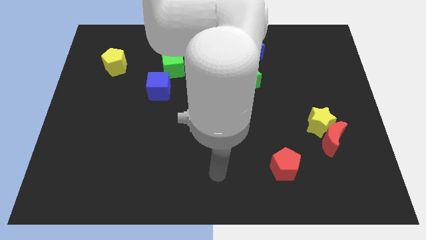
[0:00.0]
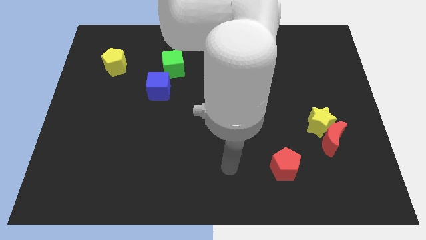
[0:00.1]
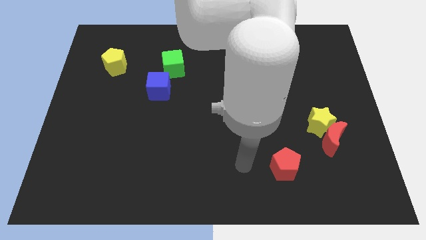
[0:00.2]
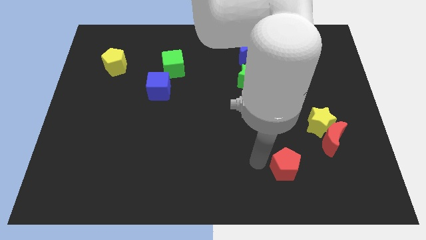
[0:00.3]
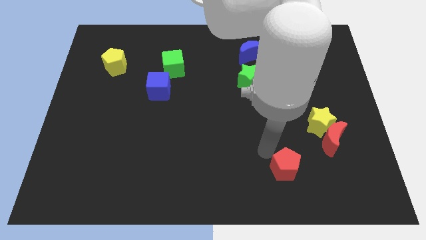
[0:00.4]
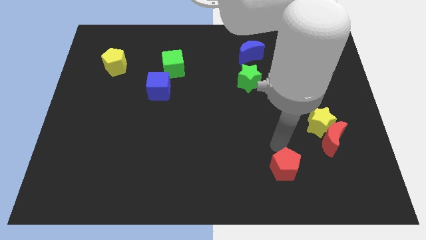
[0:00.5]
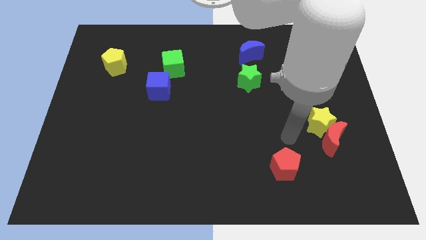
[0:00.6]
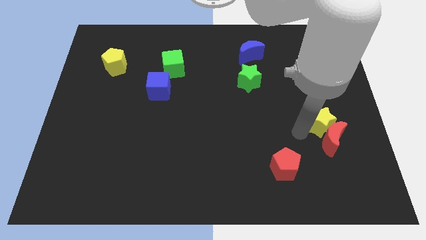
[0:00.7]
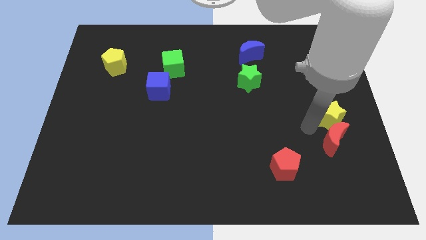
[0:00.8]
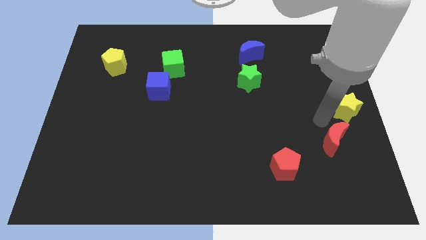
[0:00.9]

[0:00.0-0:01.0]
move the red moon away from the yellow star

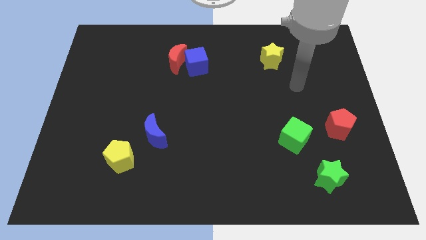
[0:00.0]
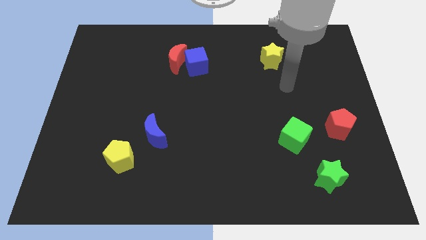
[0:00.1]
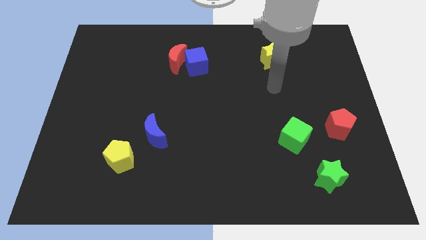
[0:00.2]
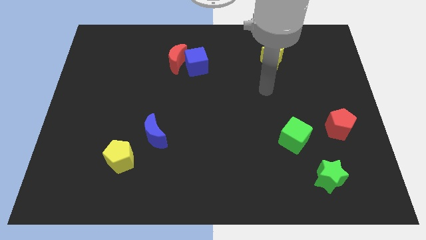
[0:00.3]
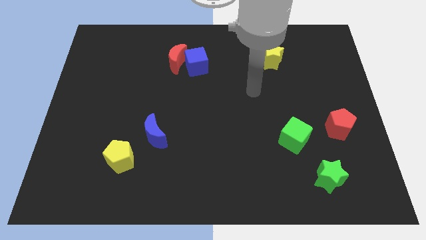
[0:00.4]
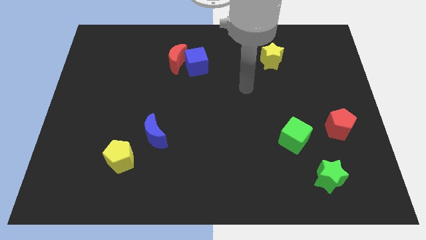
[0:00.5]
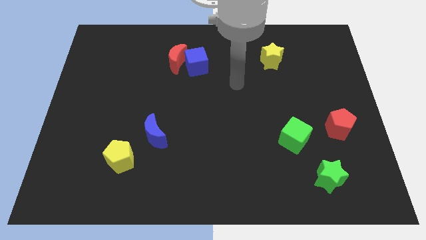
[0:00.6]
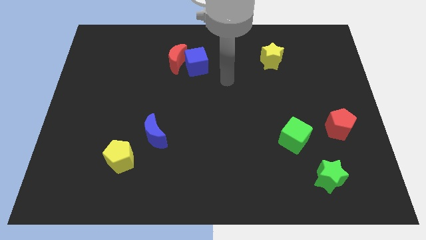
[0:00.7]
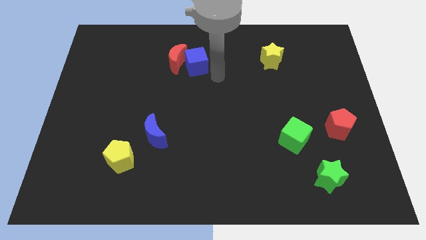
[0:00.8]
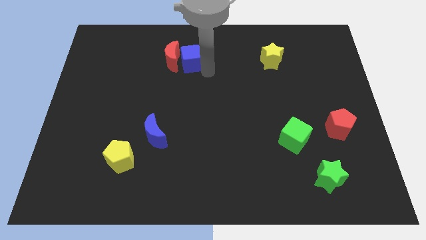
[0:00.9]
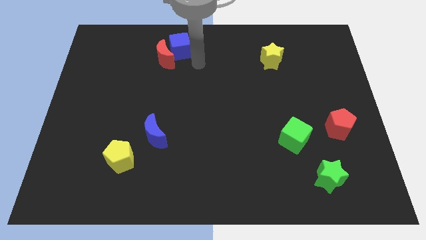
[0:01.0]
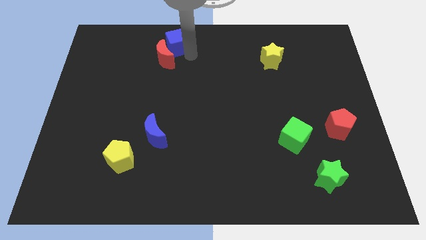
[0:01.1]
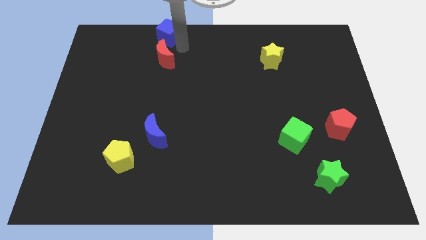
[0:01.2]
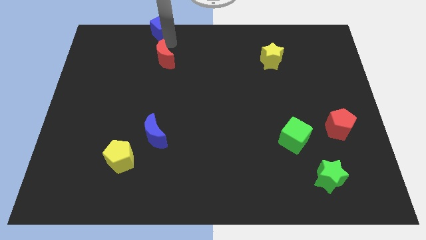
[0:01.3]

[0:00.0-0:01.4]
pull the red moon apart from the blue cube

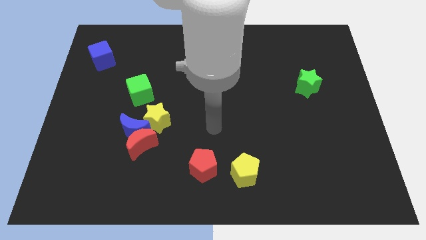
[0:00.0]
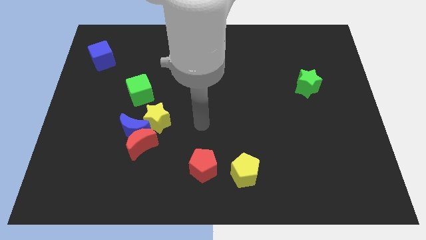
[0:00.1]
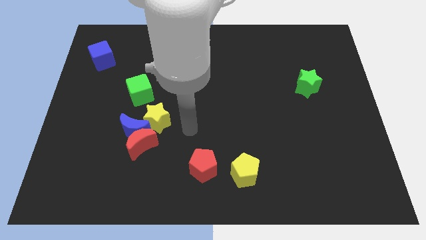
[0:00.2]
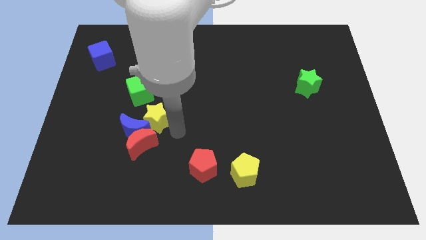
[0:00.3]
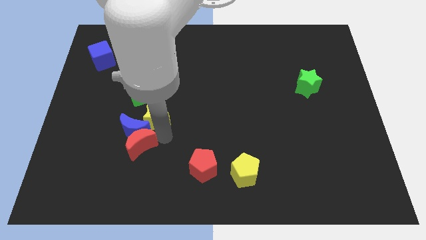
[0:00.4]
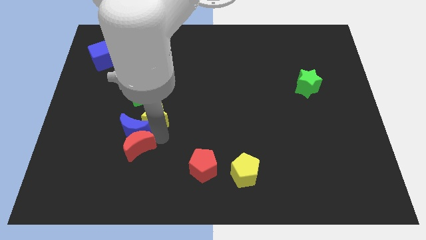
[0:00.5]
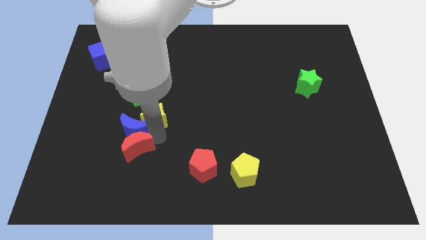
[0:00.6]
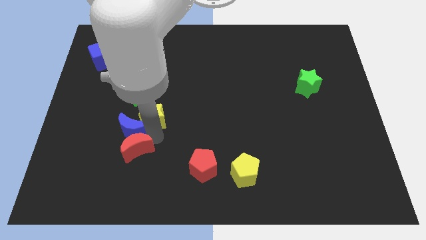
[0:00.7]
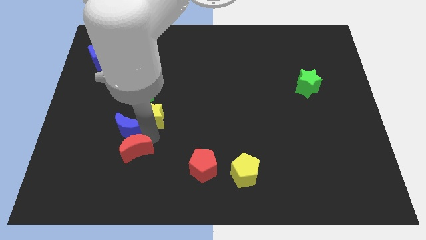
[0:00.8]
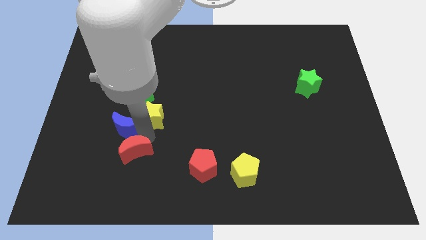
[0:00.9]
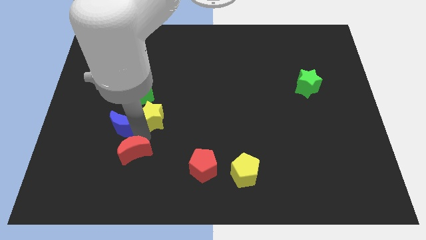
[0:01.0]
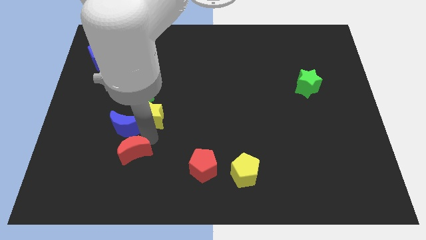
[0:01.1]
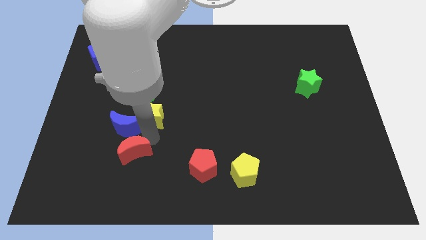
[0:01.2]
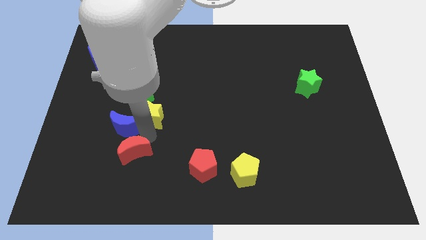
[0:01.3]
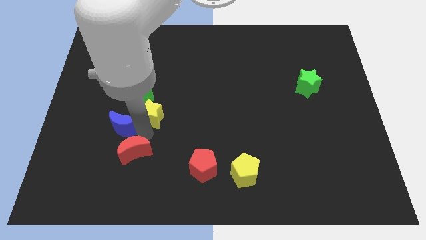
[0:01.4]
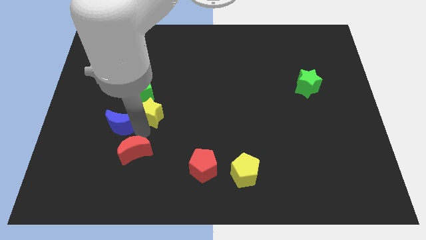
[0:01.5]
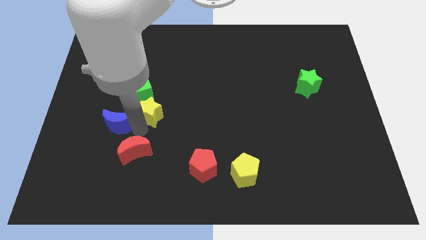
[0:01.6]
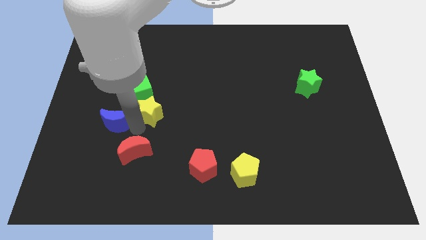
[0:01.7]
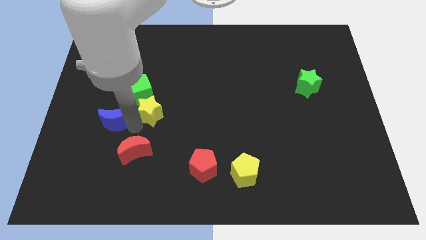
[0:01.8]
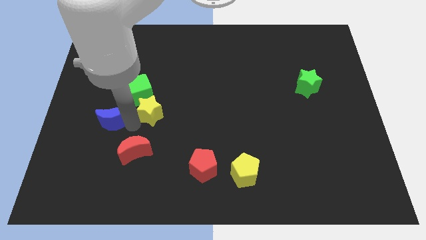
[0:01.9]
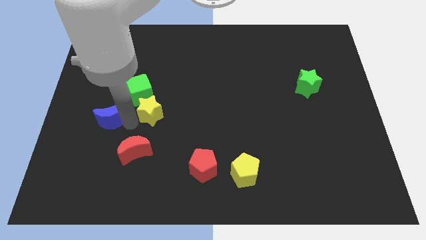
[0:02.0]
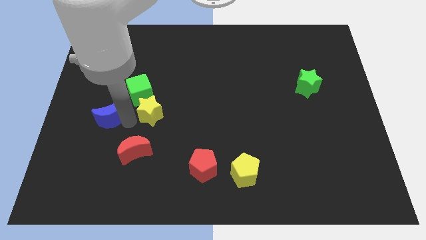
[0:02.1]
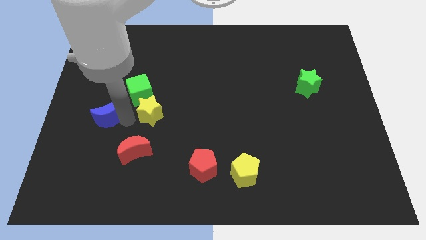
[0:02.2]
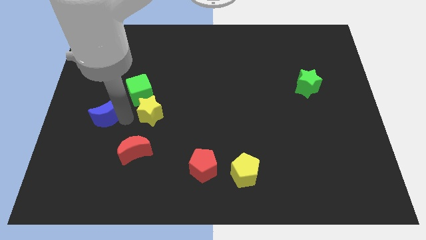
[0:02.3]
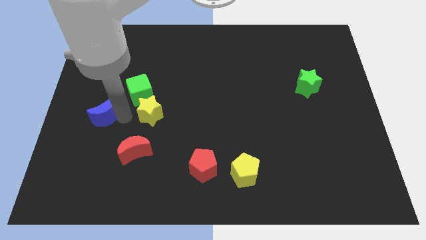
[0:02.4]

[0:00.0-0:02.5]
pull the blue moon apart from the red moon and yellow star

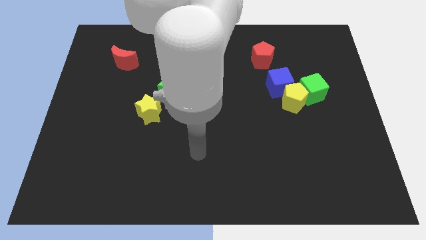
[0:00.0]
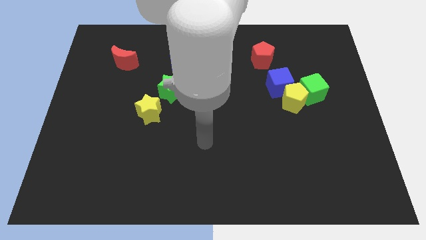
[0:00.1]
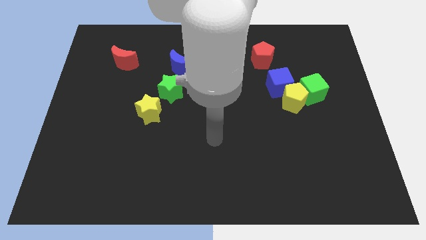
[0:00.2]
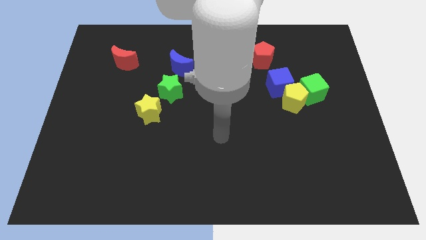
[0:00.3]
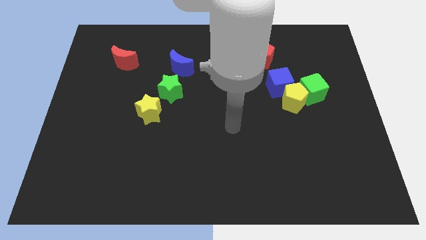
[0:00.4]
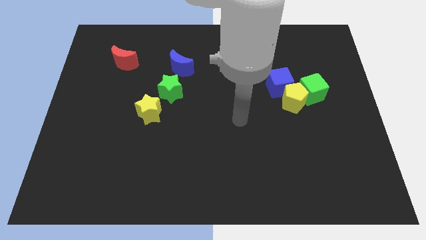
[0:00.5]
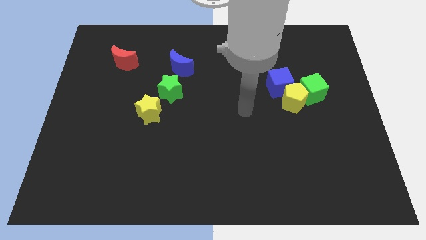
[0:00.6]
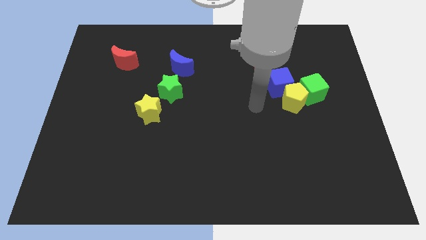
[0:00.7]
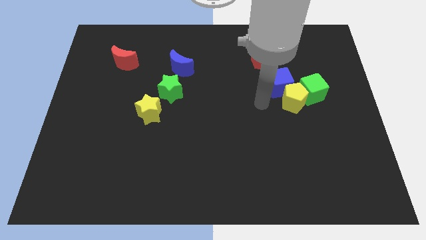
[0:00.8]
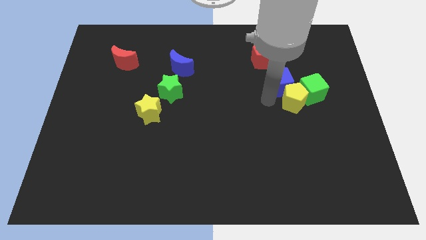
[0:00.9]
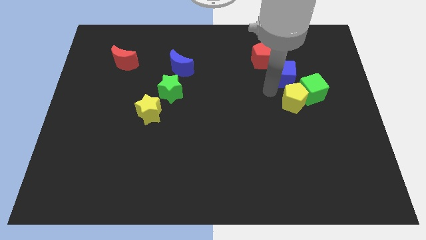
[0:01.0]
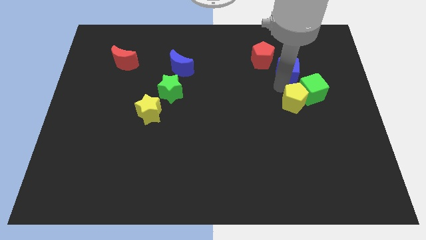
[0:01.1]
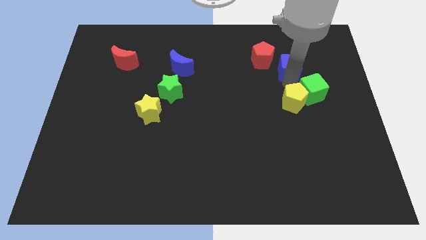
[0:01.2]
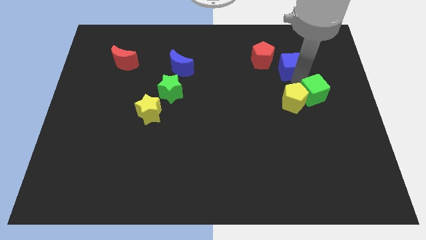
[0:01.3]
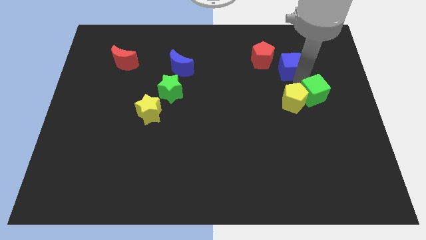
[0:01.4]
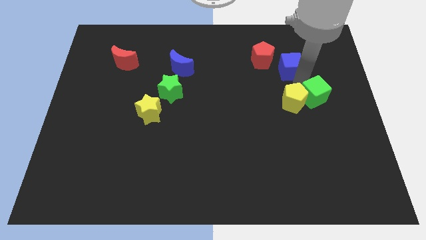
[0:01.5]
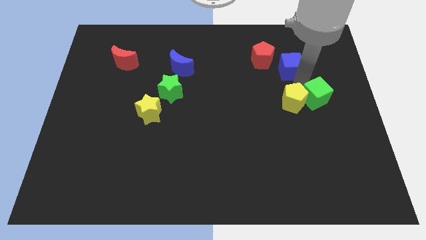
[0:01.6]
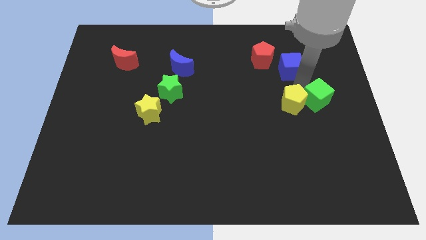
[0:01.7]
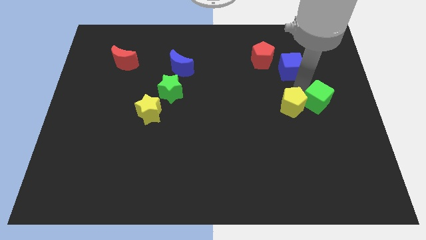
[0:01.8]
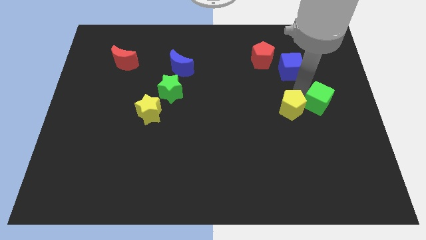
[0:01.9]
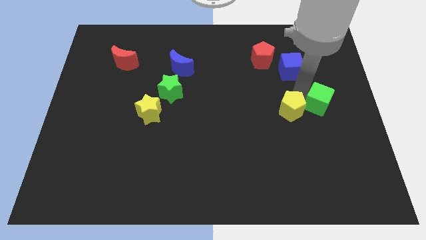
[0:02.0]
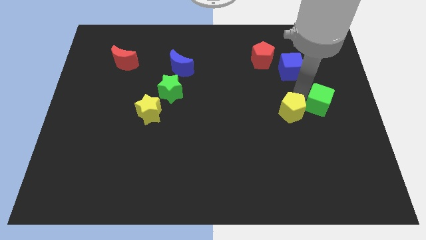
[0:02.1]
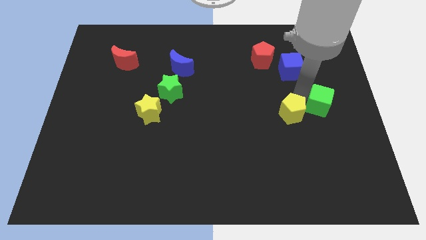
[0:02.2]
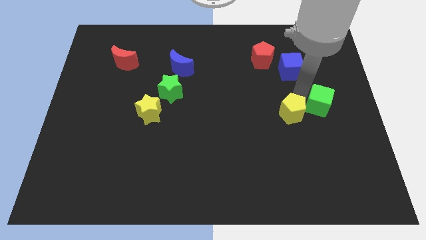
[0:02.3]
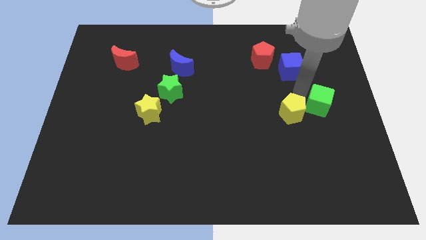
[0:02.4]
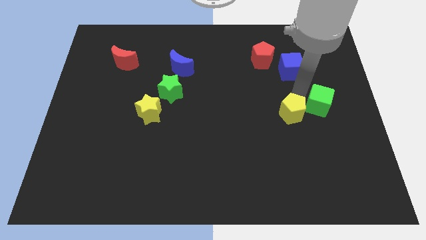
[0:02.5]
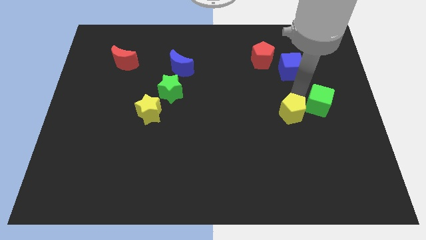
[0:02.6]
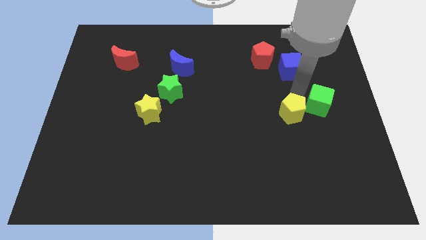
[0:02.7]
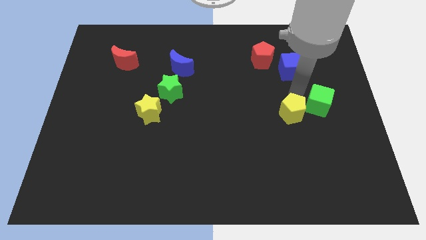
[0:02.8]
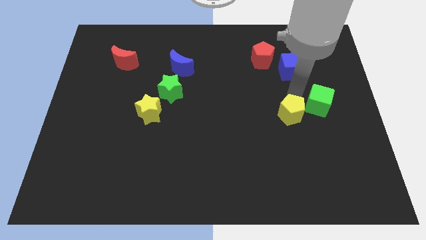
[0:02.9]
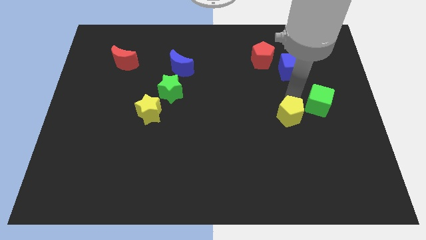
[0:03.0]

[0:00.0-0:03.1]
separate the yellow pentagon from the blue cube and green cube

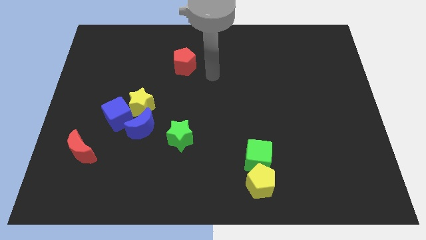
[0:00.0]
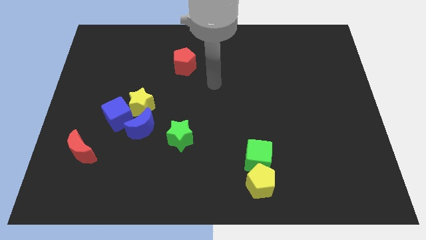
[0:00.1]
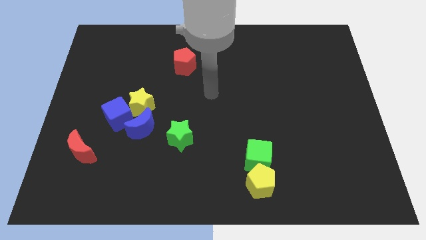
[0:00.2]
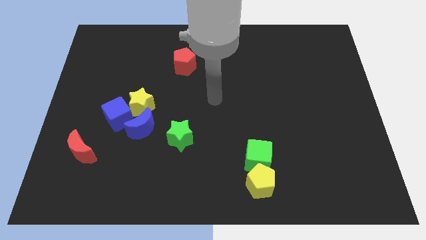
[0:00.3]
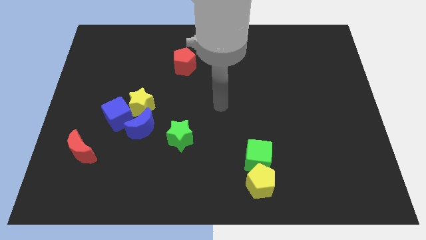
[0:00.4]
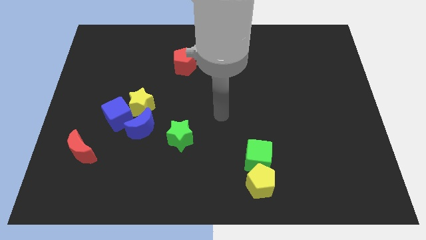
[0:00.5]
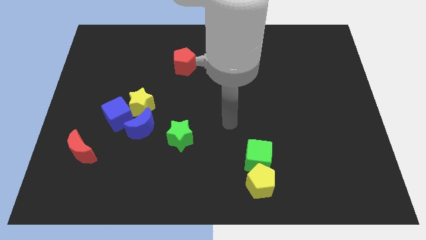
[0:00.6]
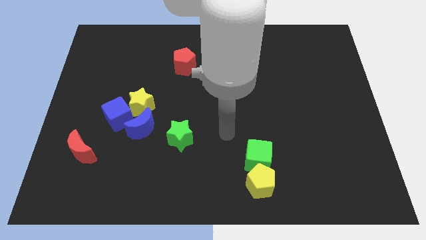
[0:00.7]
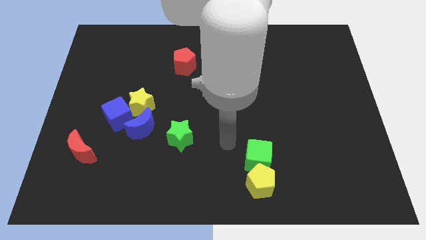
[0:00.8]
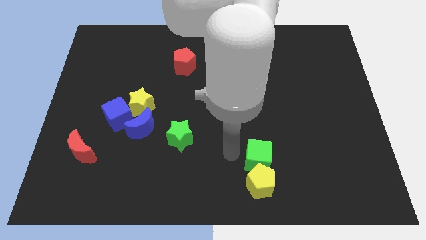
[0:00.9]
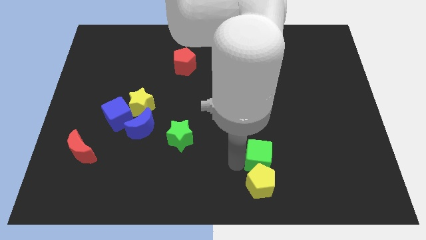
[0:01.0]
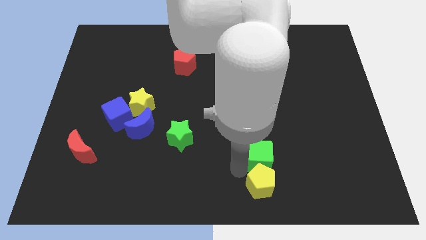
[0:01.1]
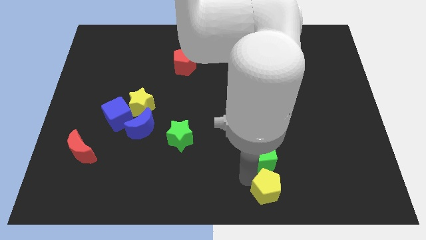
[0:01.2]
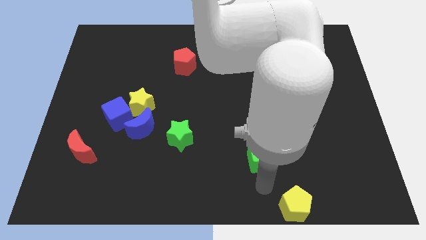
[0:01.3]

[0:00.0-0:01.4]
separate the green cube from the yellow pentagon
